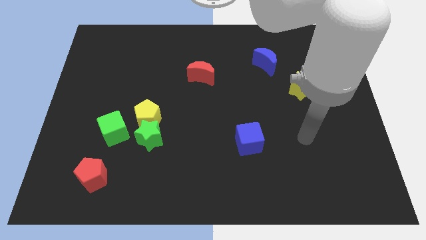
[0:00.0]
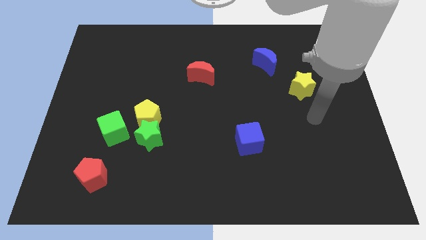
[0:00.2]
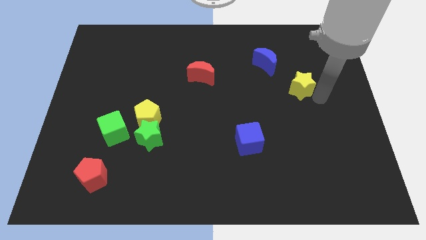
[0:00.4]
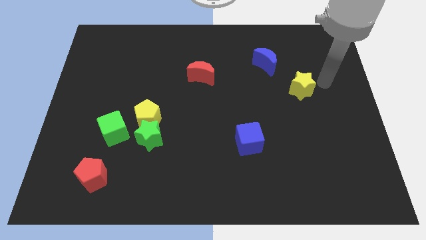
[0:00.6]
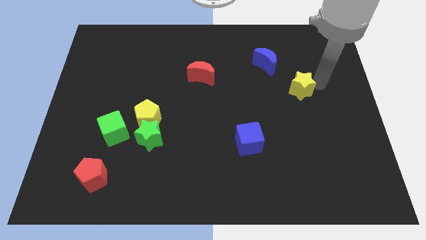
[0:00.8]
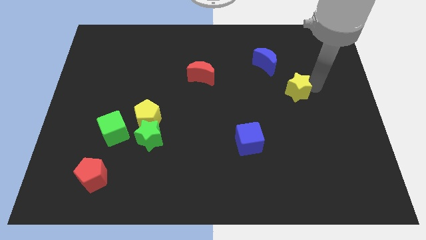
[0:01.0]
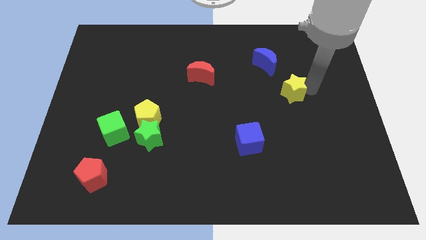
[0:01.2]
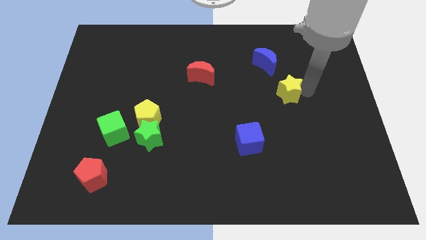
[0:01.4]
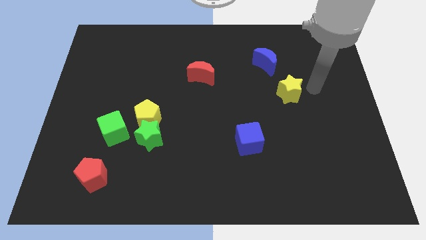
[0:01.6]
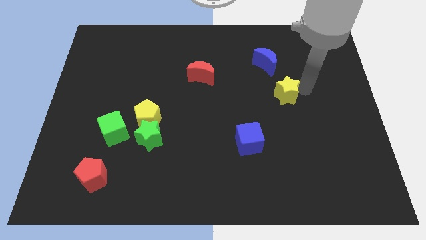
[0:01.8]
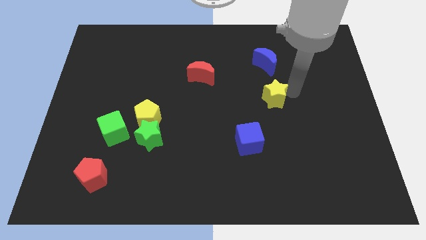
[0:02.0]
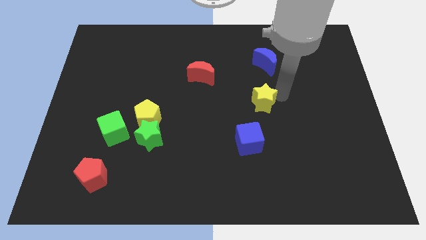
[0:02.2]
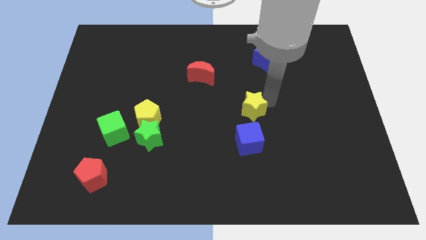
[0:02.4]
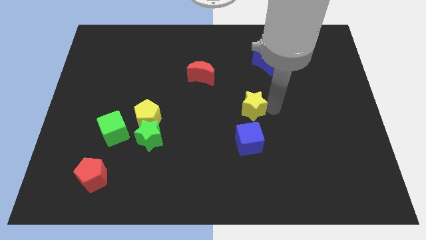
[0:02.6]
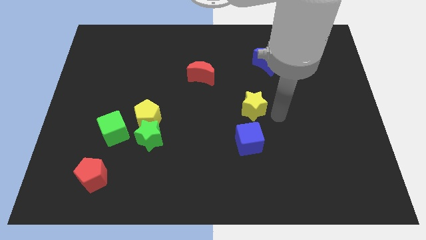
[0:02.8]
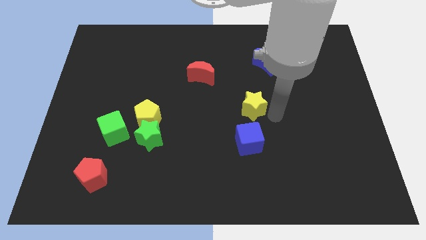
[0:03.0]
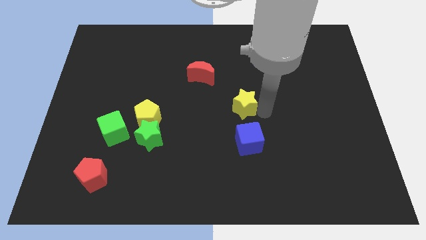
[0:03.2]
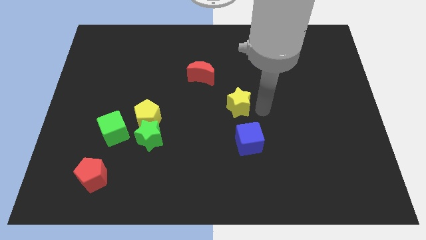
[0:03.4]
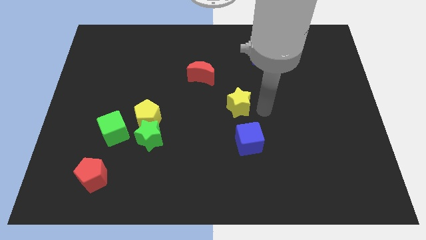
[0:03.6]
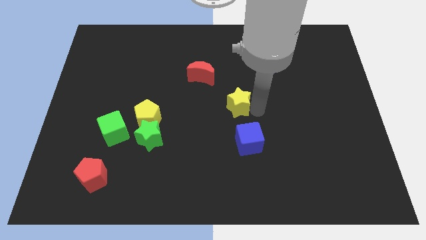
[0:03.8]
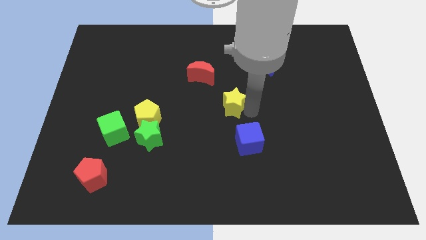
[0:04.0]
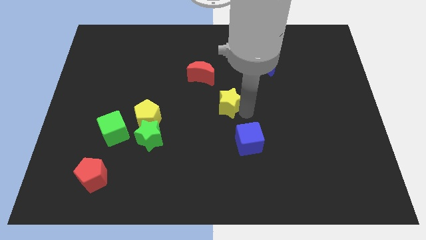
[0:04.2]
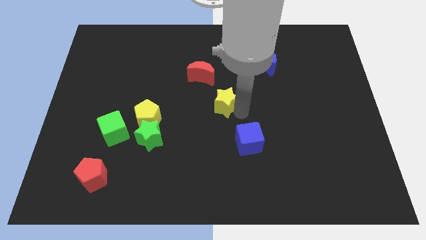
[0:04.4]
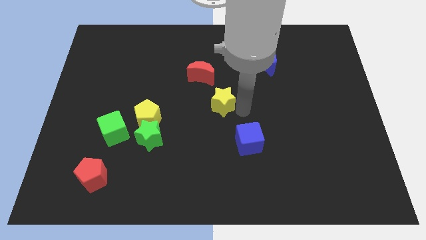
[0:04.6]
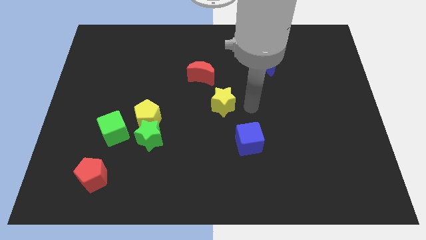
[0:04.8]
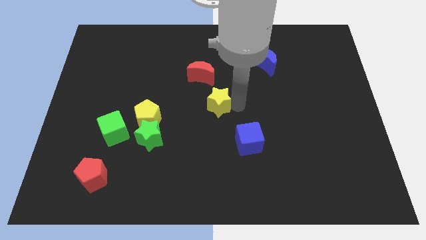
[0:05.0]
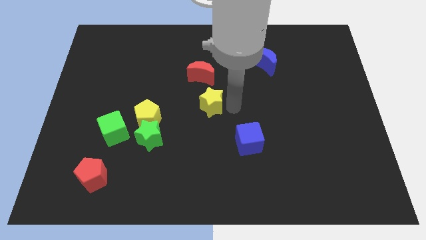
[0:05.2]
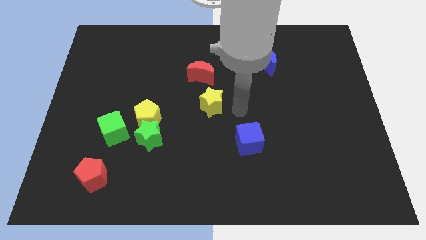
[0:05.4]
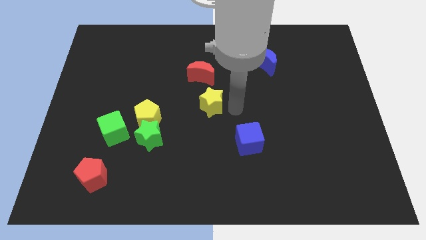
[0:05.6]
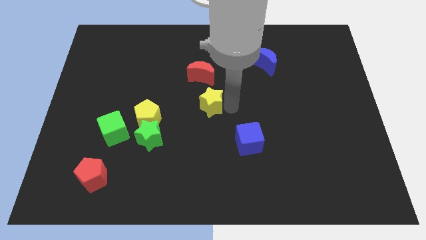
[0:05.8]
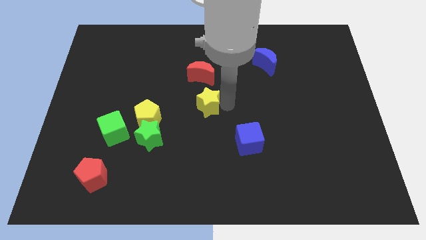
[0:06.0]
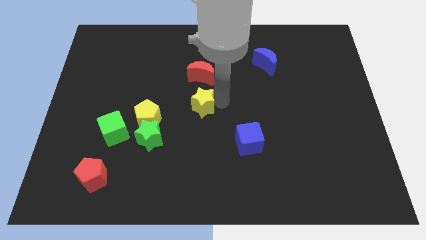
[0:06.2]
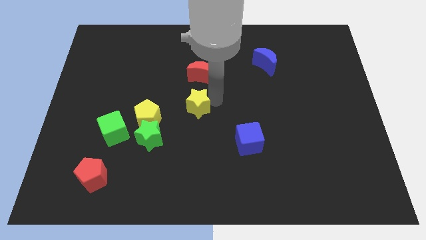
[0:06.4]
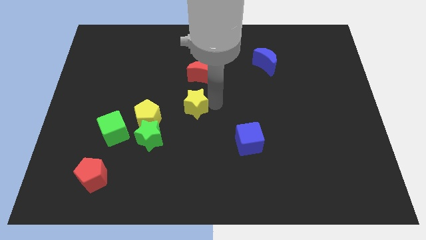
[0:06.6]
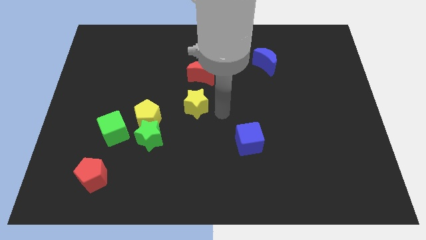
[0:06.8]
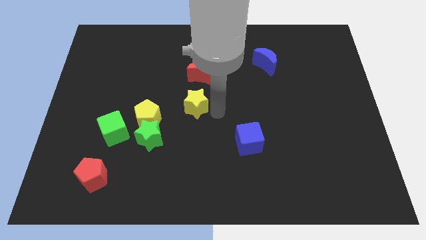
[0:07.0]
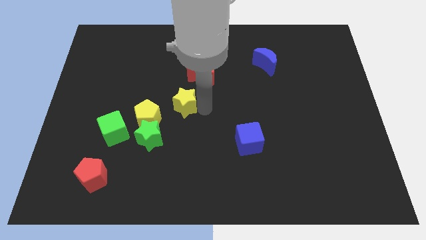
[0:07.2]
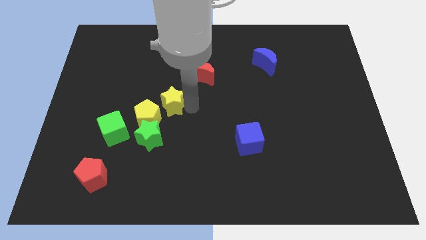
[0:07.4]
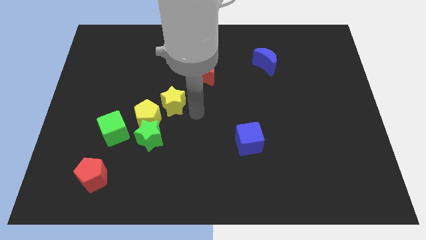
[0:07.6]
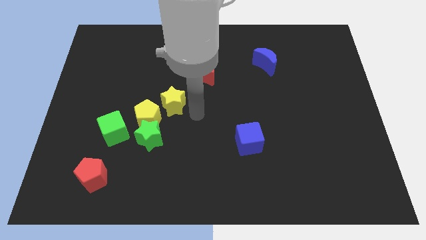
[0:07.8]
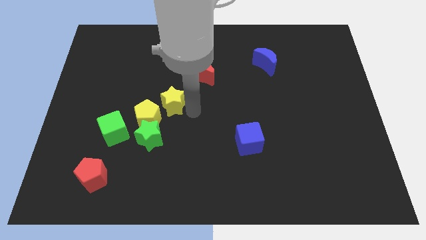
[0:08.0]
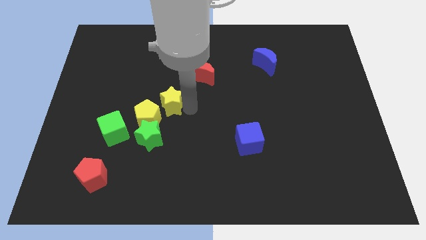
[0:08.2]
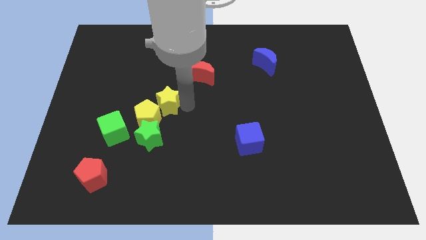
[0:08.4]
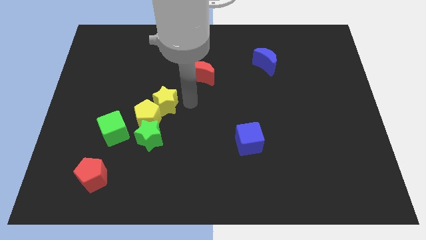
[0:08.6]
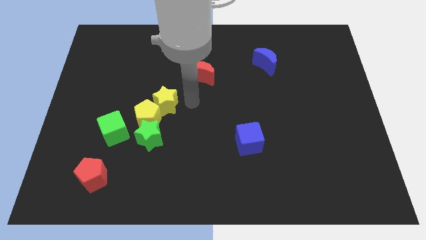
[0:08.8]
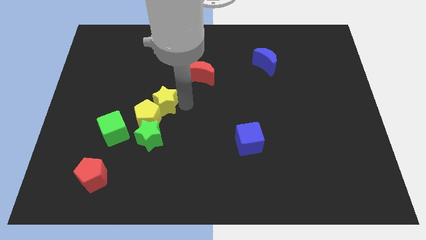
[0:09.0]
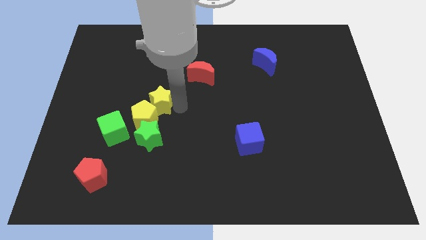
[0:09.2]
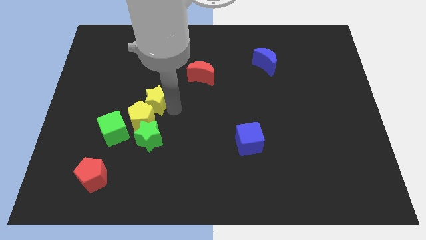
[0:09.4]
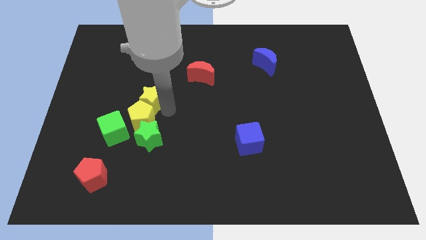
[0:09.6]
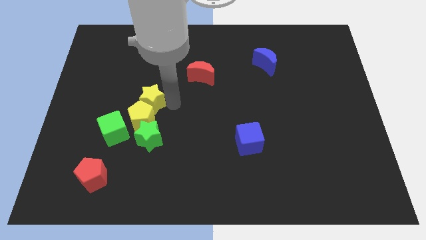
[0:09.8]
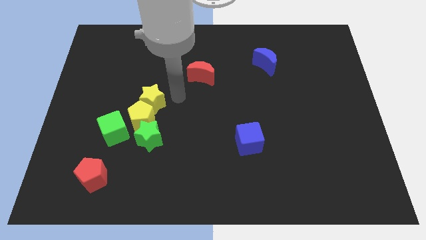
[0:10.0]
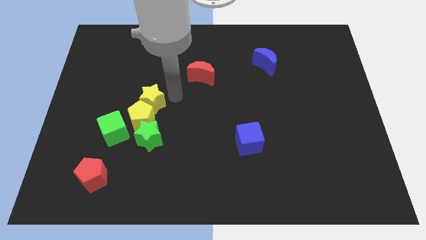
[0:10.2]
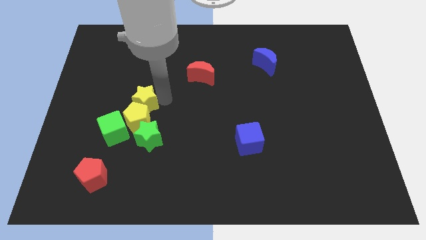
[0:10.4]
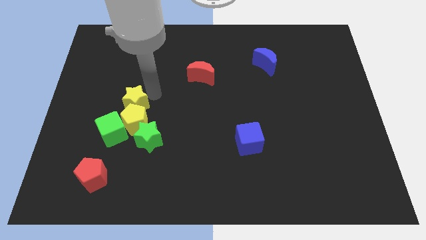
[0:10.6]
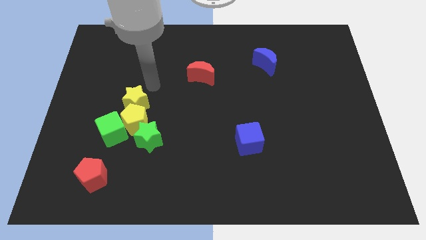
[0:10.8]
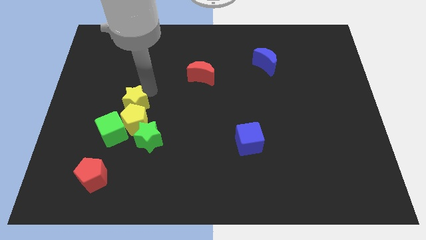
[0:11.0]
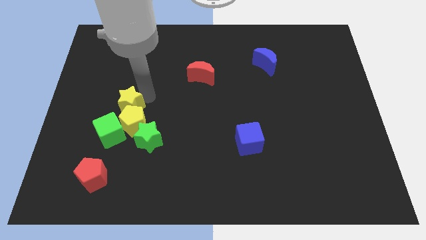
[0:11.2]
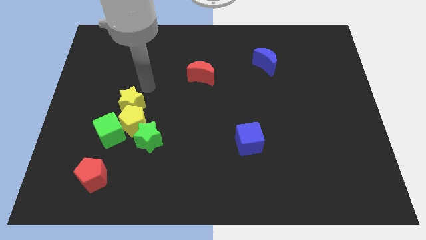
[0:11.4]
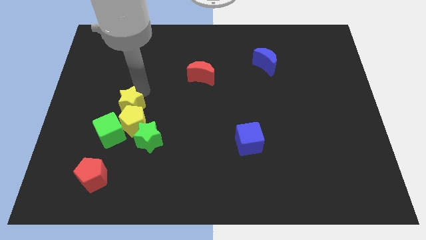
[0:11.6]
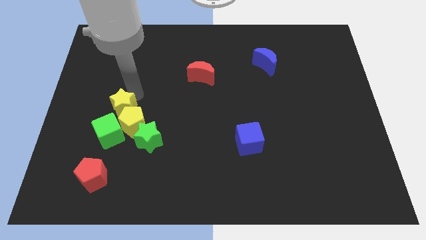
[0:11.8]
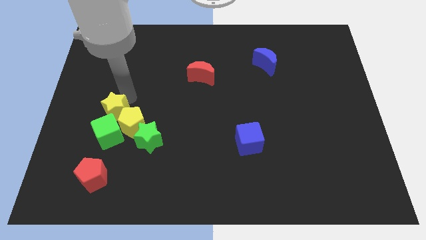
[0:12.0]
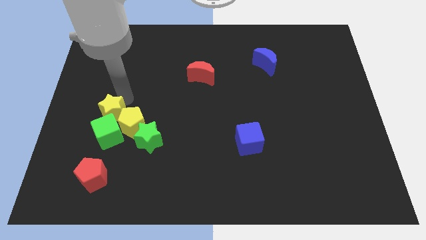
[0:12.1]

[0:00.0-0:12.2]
push the yellow star to the green cube
